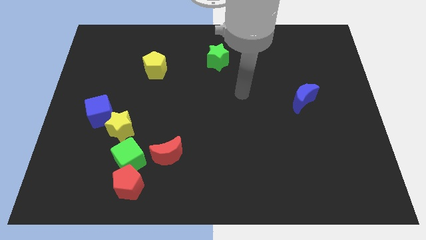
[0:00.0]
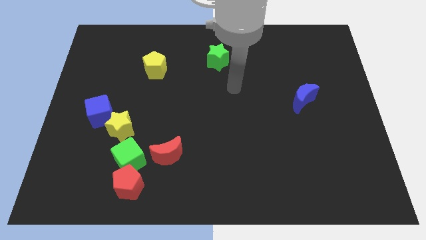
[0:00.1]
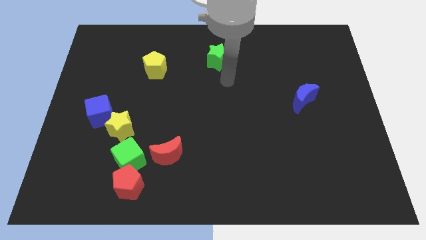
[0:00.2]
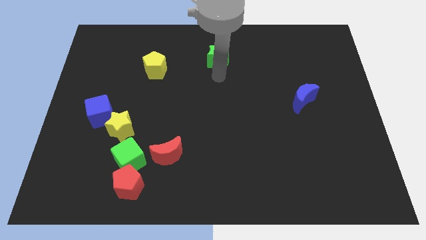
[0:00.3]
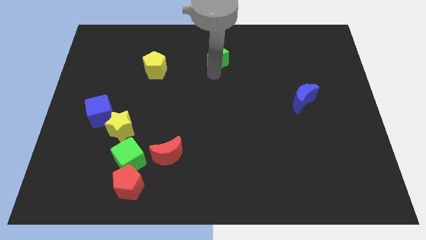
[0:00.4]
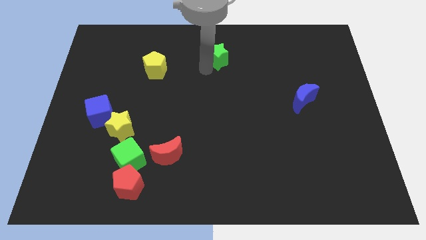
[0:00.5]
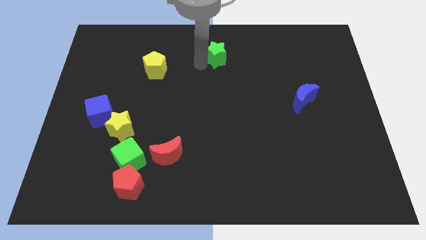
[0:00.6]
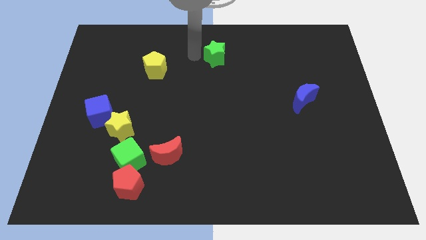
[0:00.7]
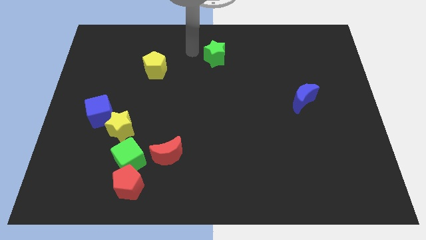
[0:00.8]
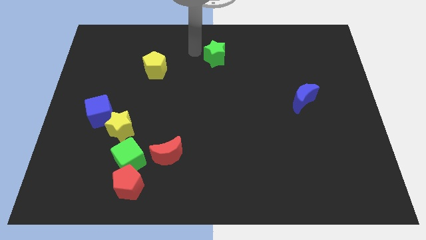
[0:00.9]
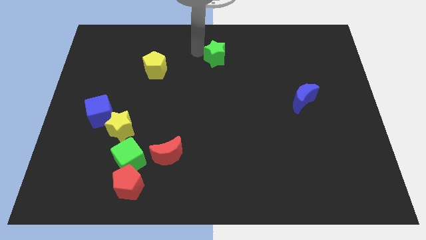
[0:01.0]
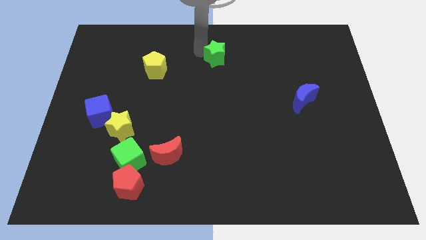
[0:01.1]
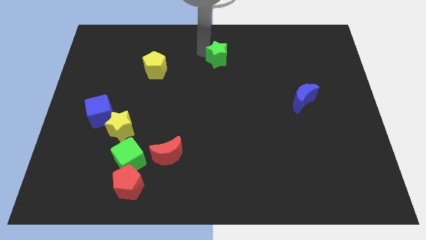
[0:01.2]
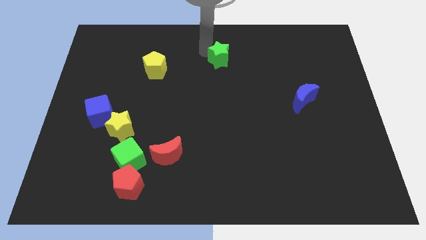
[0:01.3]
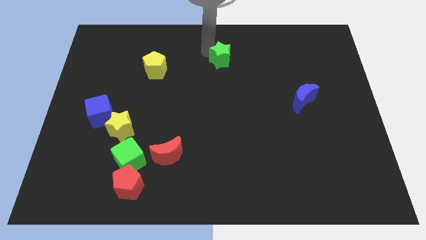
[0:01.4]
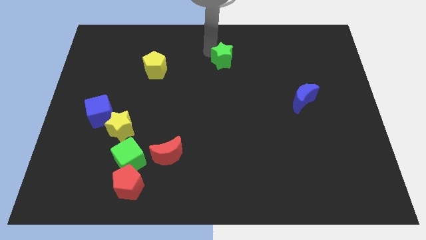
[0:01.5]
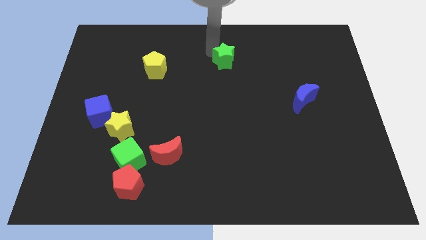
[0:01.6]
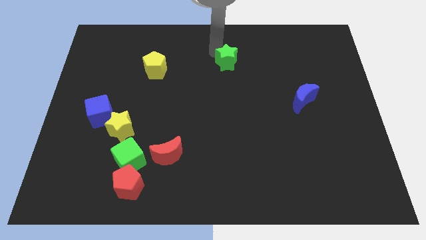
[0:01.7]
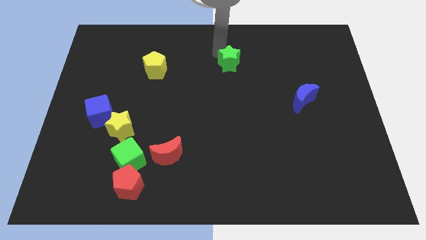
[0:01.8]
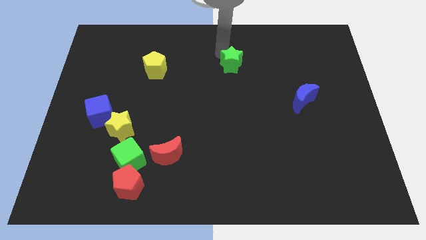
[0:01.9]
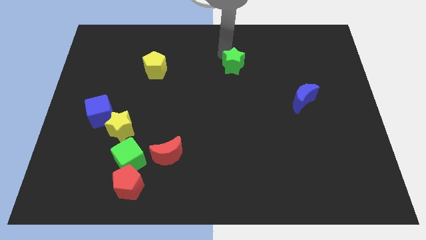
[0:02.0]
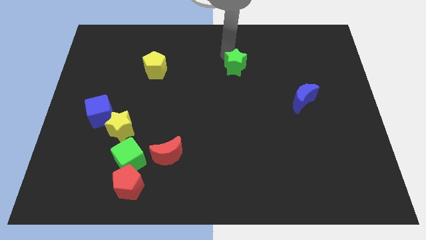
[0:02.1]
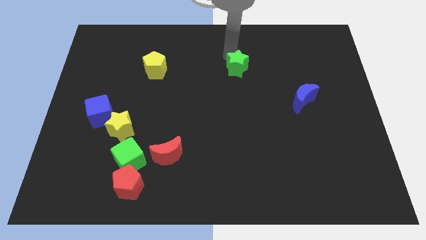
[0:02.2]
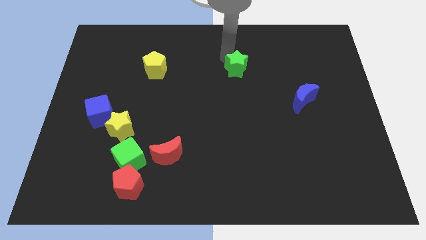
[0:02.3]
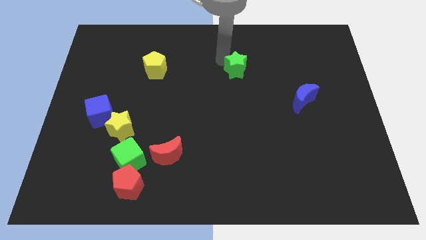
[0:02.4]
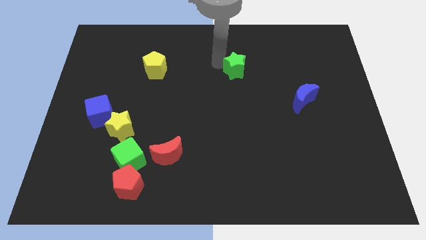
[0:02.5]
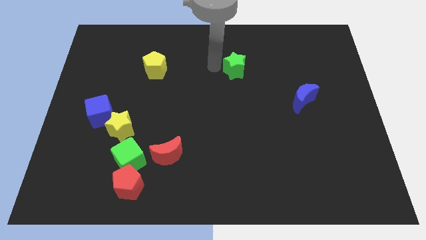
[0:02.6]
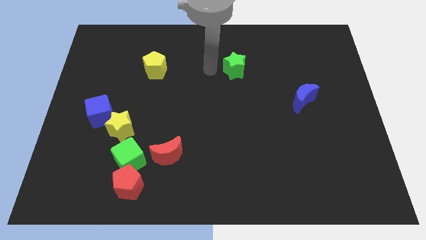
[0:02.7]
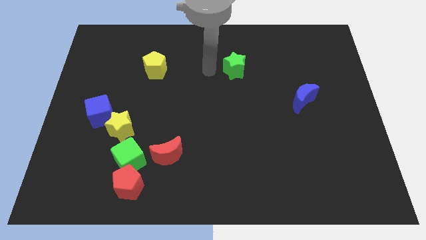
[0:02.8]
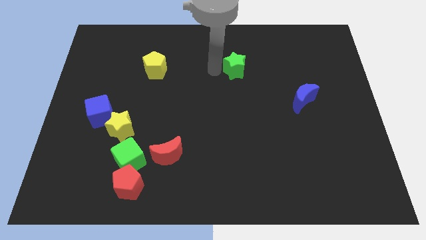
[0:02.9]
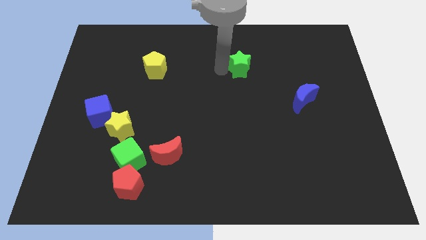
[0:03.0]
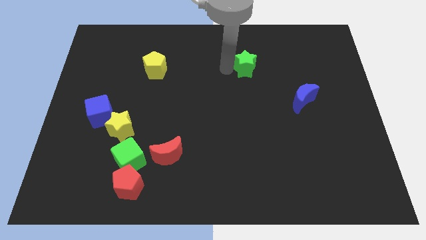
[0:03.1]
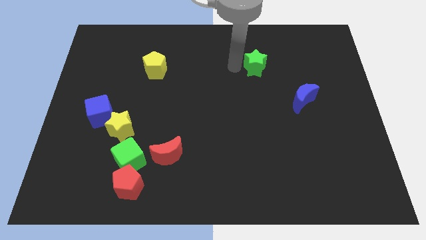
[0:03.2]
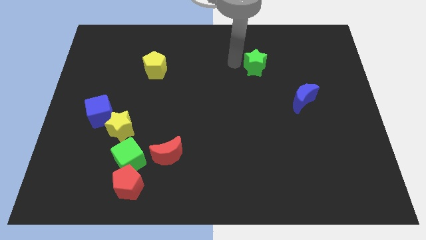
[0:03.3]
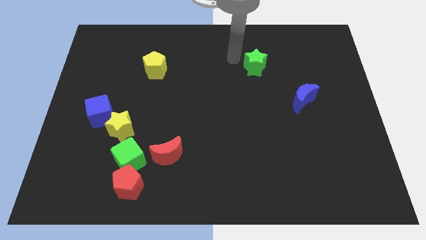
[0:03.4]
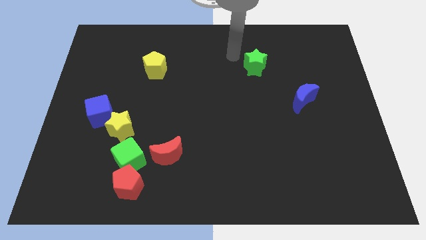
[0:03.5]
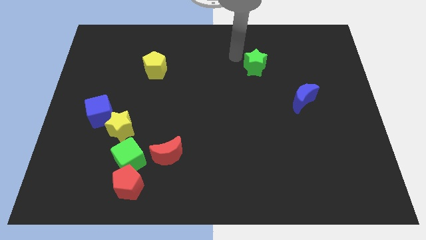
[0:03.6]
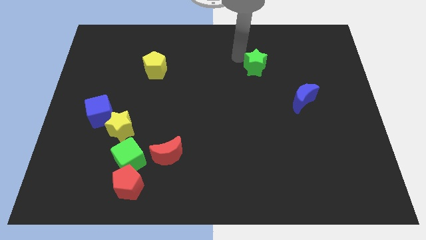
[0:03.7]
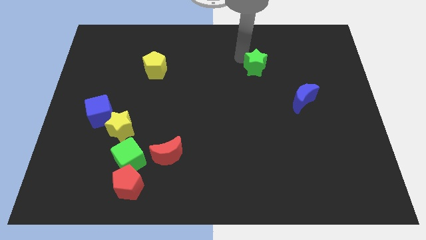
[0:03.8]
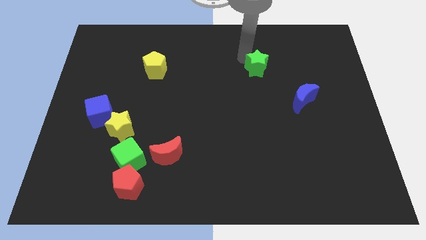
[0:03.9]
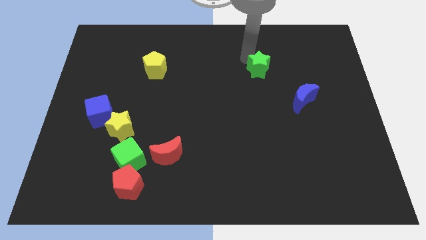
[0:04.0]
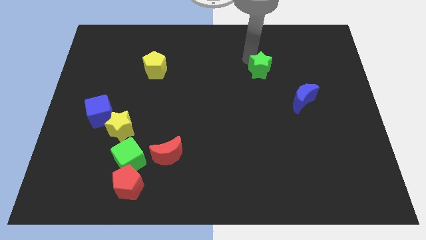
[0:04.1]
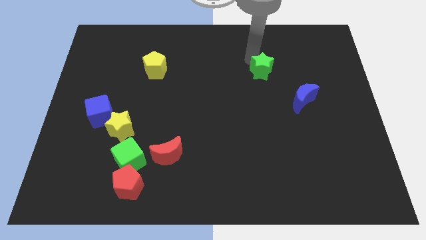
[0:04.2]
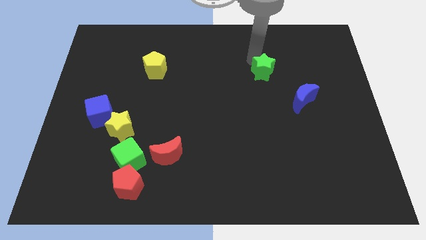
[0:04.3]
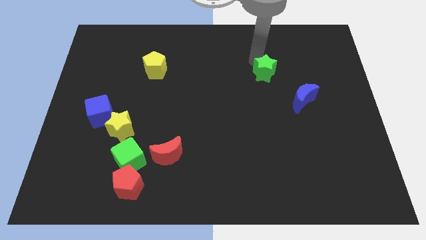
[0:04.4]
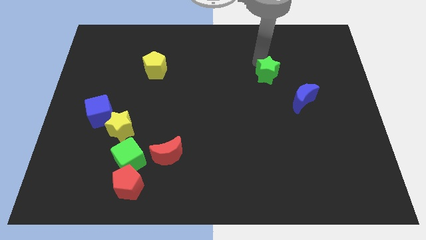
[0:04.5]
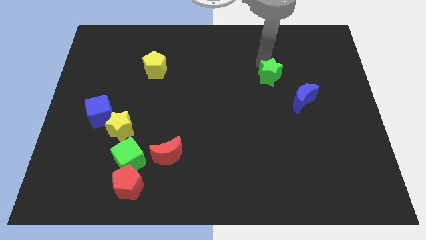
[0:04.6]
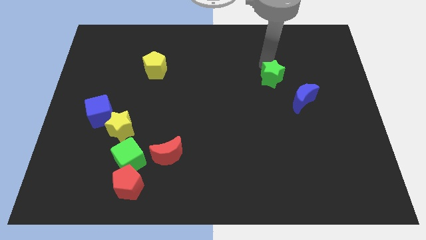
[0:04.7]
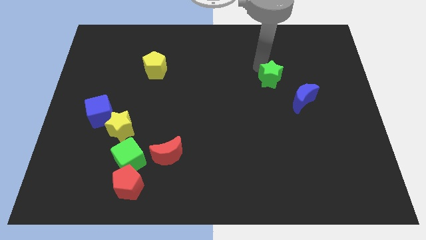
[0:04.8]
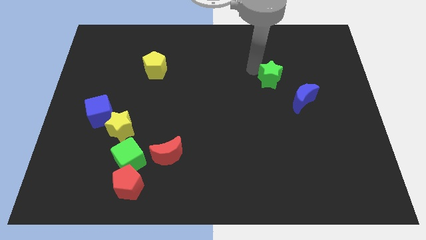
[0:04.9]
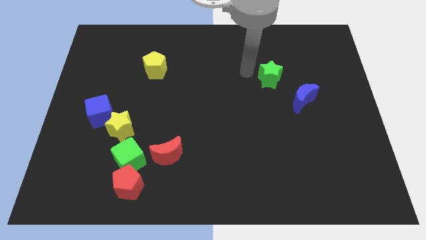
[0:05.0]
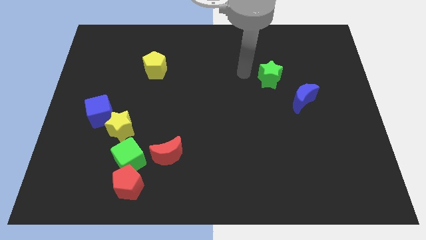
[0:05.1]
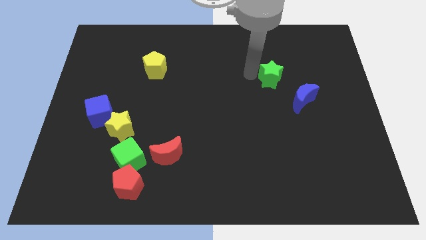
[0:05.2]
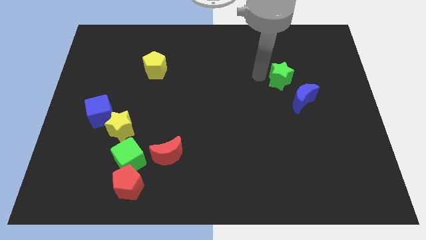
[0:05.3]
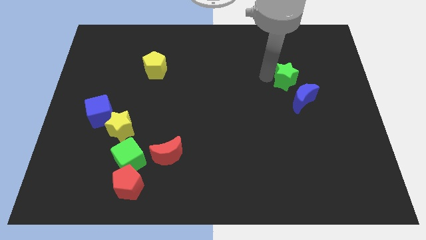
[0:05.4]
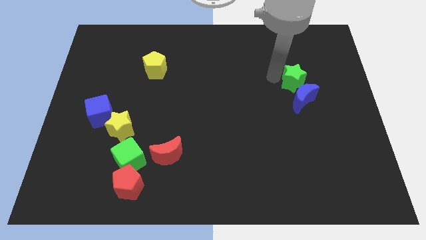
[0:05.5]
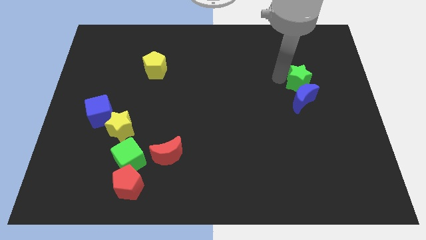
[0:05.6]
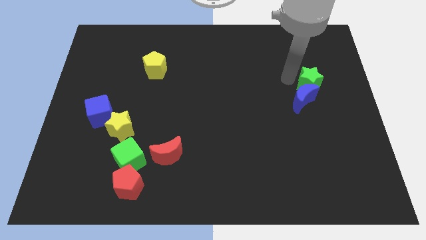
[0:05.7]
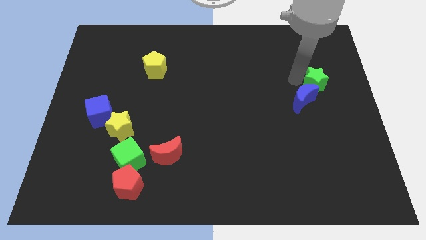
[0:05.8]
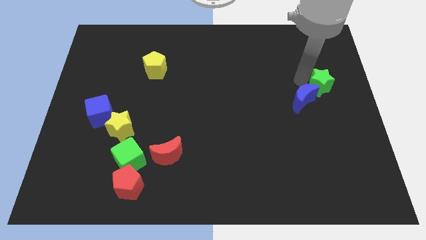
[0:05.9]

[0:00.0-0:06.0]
put the green star to the center right
